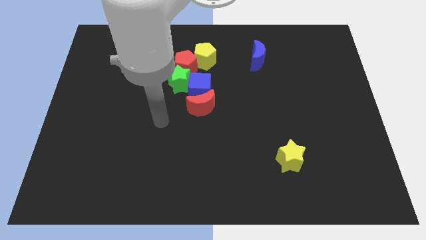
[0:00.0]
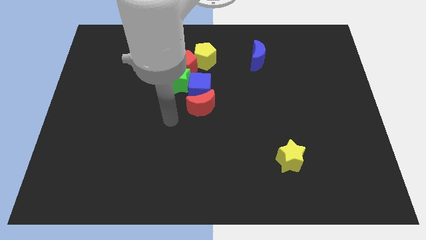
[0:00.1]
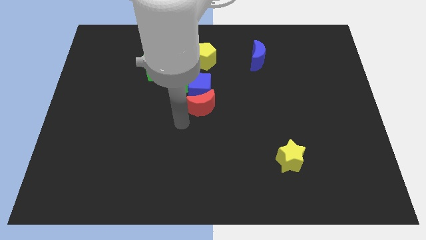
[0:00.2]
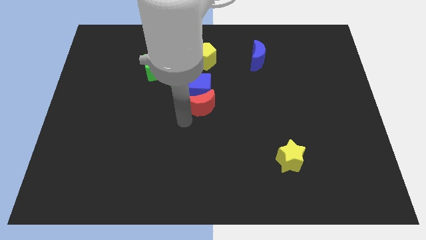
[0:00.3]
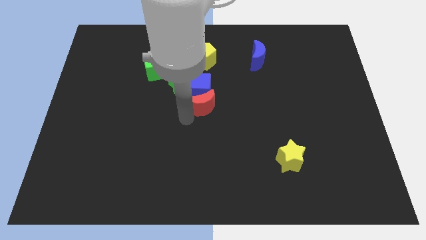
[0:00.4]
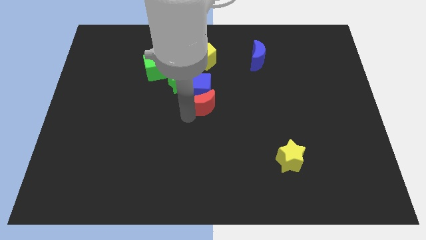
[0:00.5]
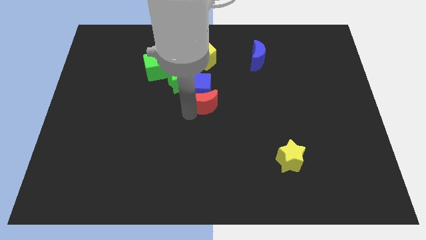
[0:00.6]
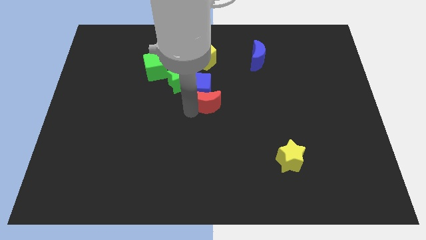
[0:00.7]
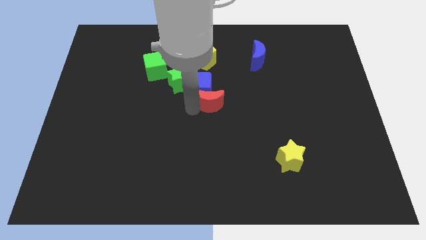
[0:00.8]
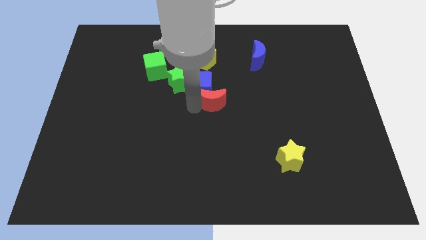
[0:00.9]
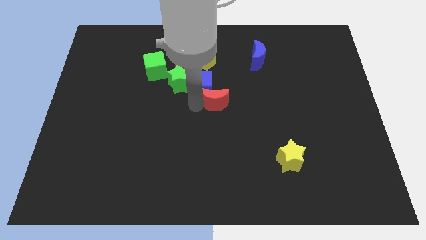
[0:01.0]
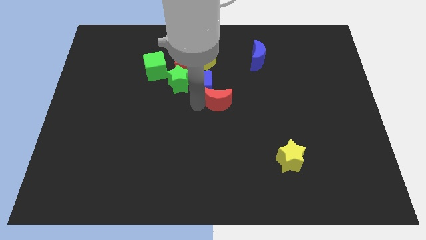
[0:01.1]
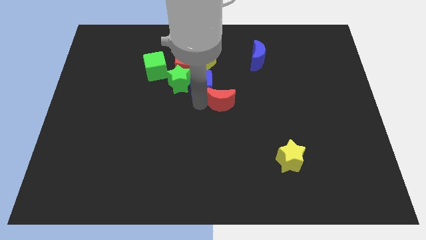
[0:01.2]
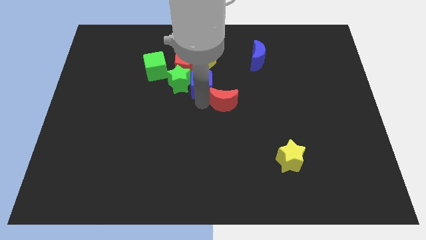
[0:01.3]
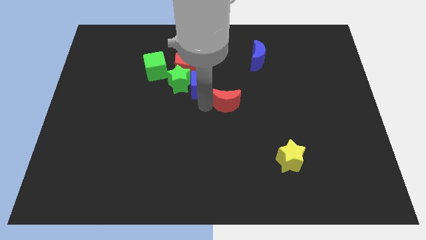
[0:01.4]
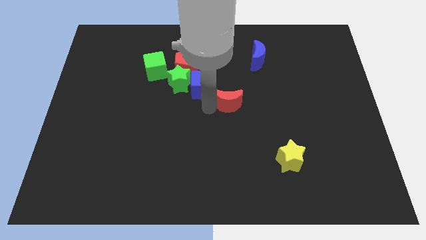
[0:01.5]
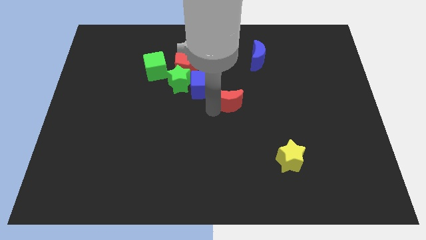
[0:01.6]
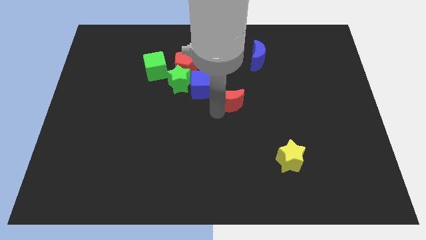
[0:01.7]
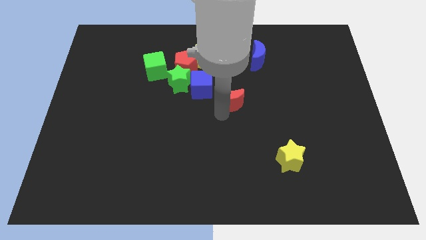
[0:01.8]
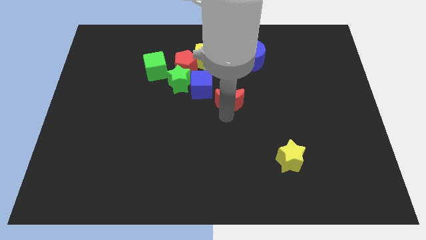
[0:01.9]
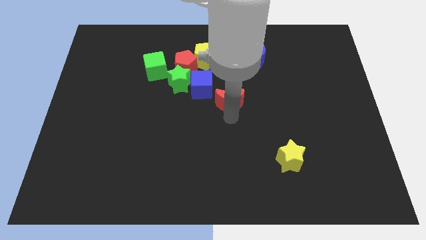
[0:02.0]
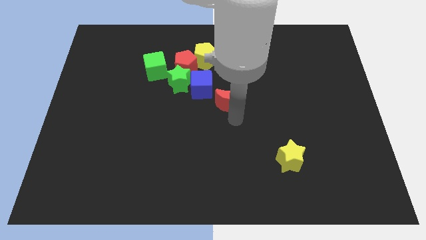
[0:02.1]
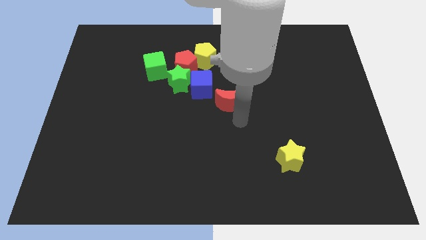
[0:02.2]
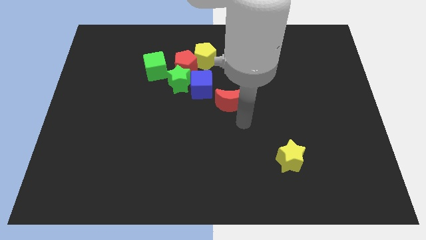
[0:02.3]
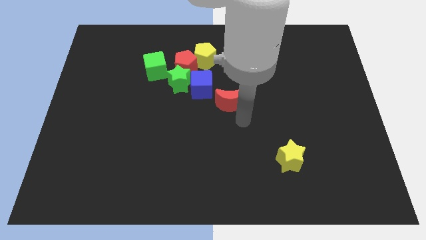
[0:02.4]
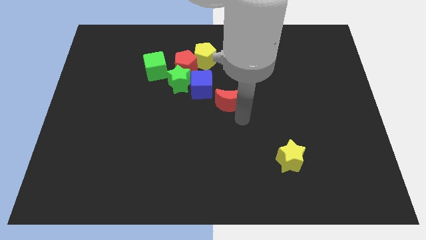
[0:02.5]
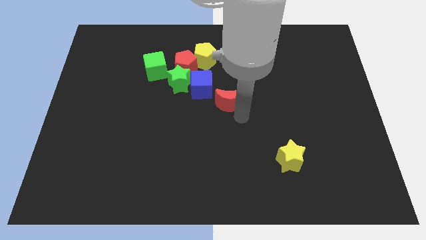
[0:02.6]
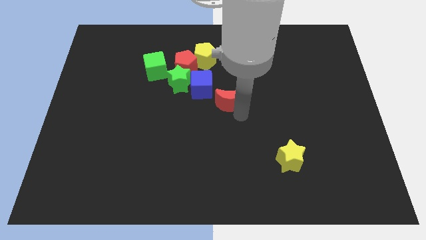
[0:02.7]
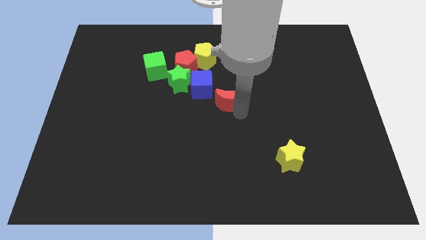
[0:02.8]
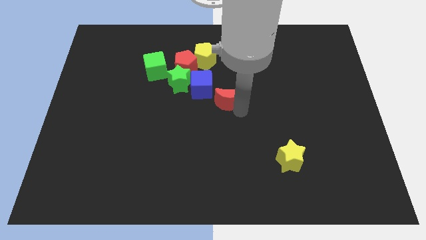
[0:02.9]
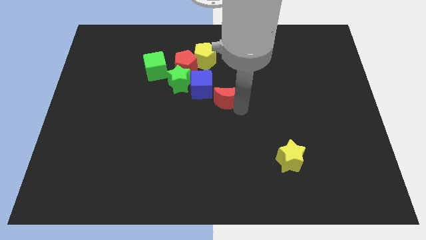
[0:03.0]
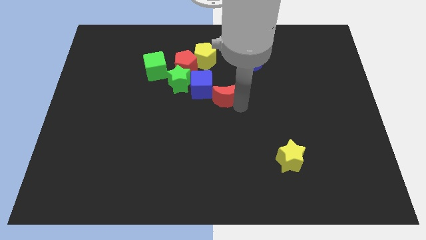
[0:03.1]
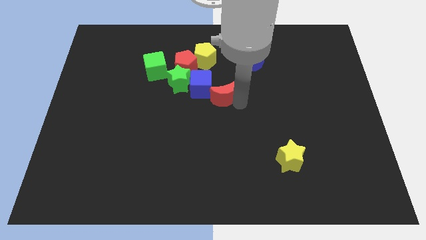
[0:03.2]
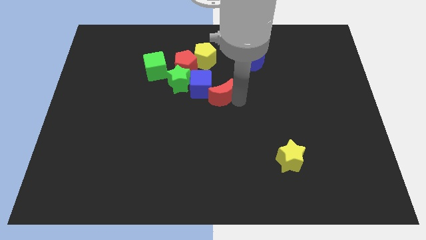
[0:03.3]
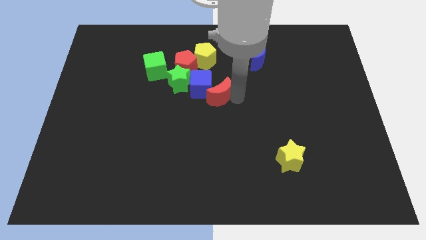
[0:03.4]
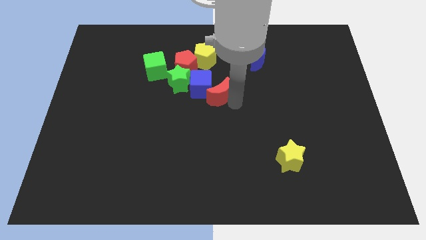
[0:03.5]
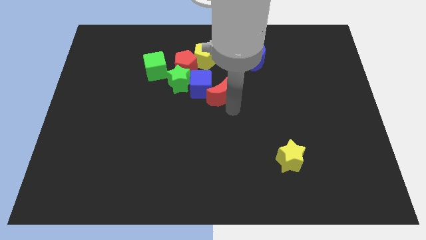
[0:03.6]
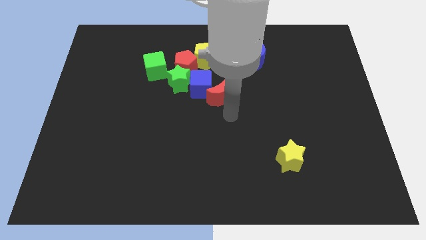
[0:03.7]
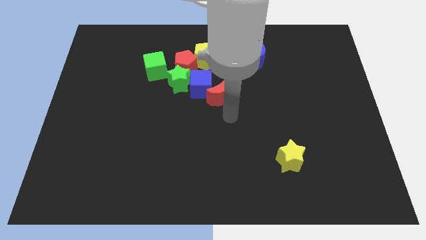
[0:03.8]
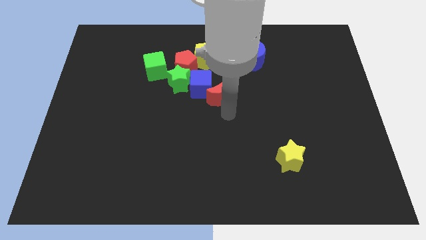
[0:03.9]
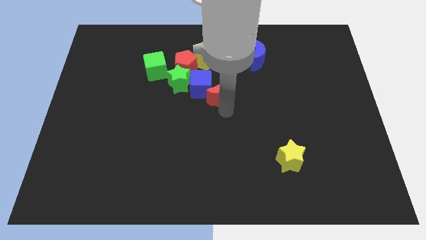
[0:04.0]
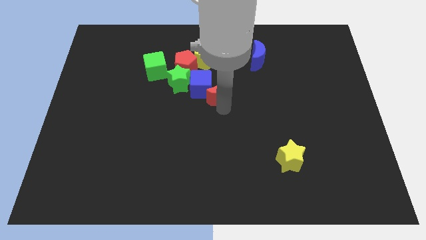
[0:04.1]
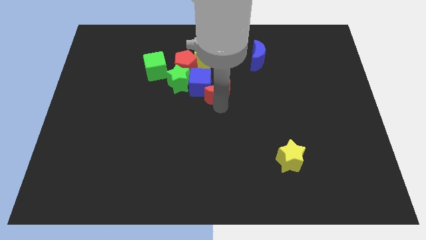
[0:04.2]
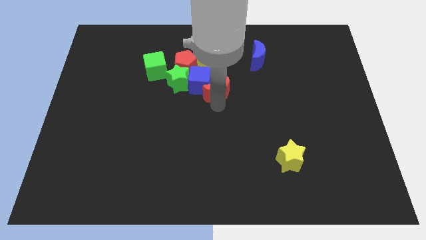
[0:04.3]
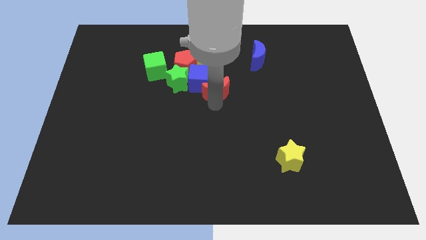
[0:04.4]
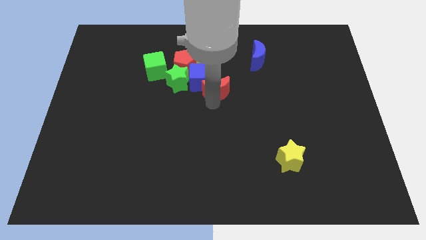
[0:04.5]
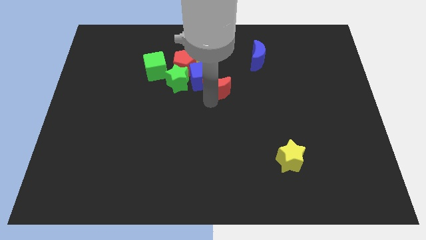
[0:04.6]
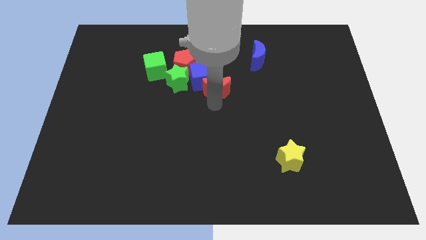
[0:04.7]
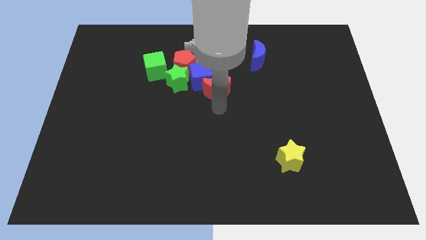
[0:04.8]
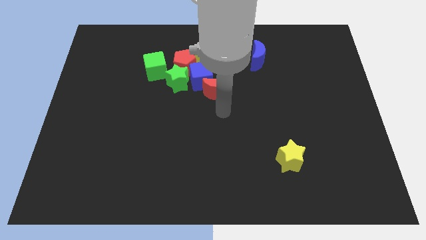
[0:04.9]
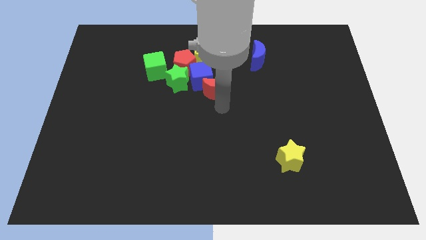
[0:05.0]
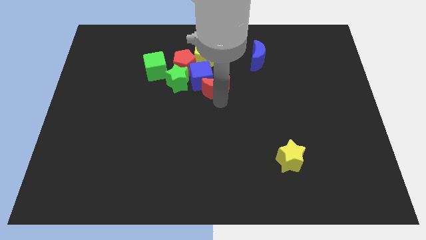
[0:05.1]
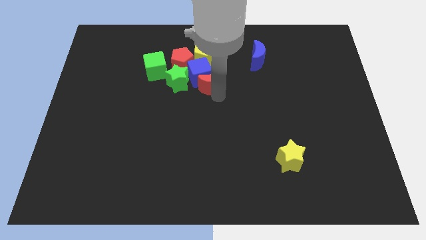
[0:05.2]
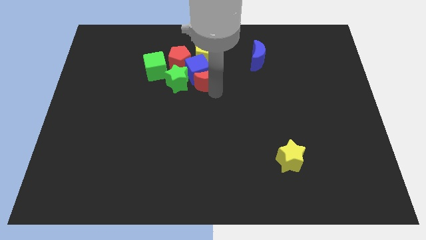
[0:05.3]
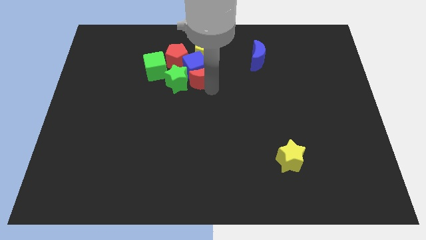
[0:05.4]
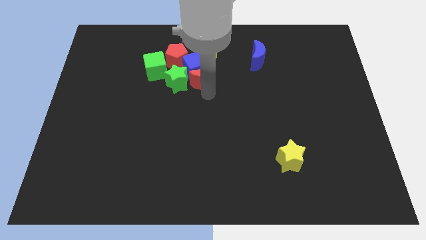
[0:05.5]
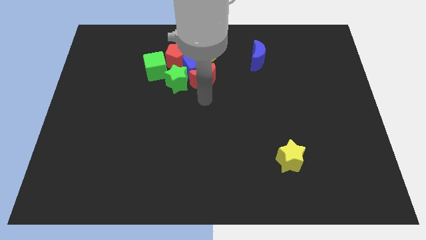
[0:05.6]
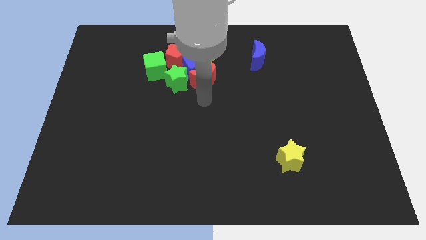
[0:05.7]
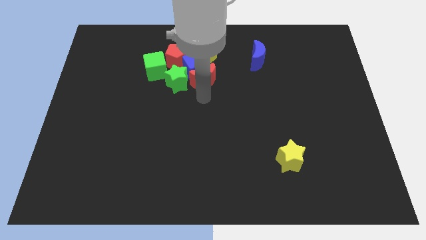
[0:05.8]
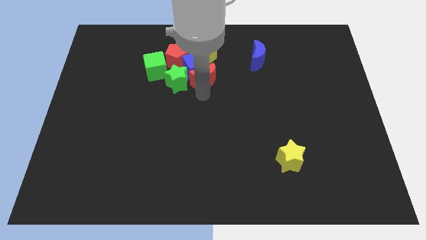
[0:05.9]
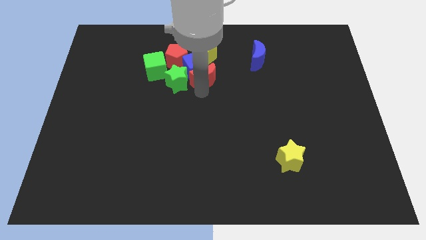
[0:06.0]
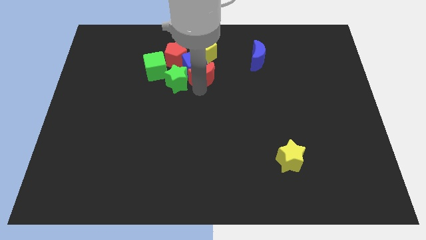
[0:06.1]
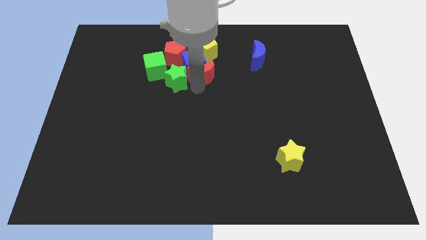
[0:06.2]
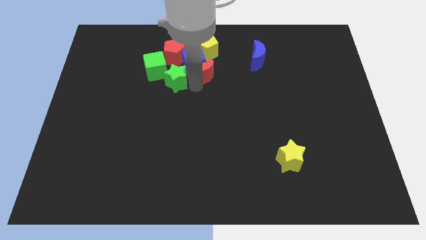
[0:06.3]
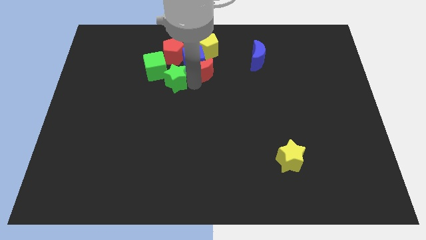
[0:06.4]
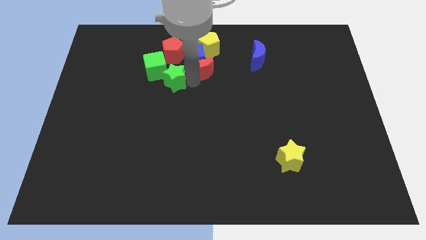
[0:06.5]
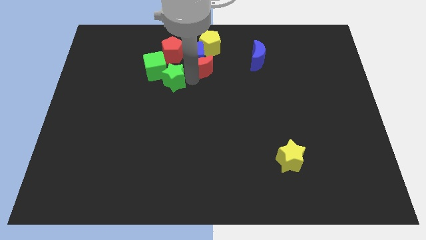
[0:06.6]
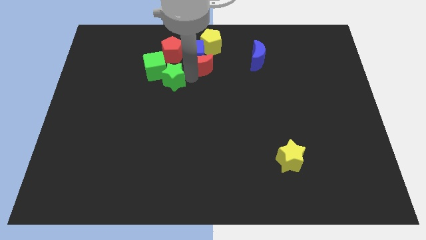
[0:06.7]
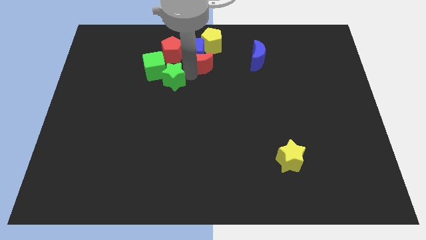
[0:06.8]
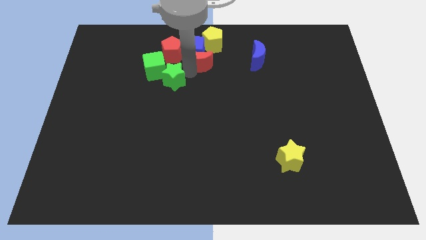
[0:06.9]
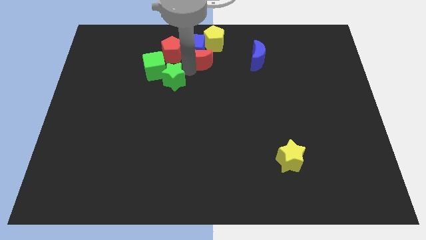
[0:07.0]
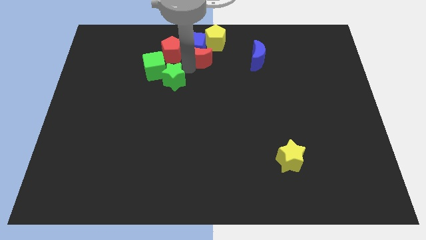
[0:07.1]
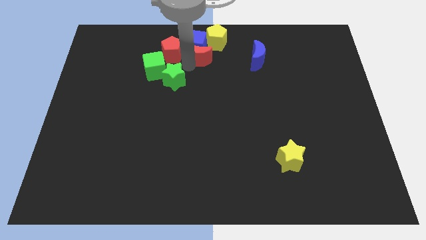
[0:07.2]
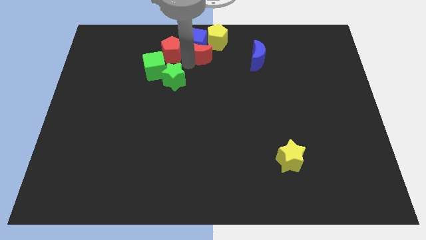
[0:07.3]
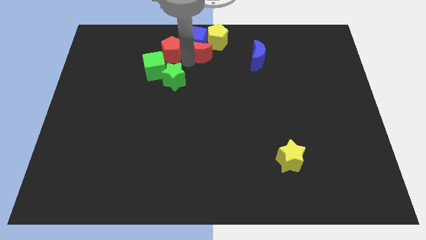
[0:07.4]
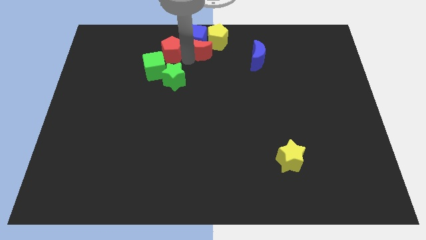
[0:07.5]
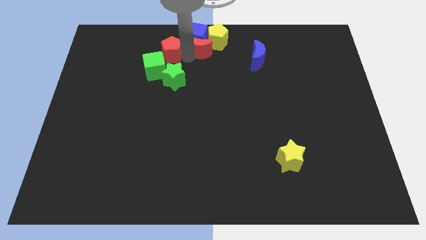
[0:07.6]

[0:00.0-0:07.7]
push the red moon to the yellow pentagon
